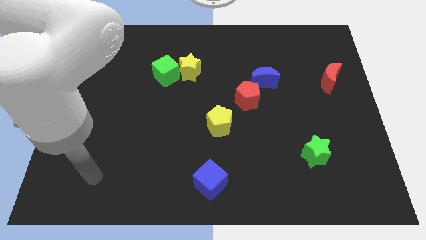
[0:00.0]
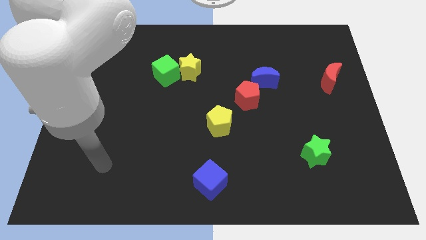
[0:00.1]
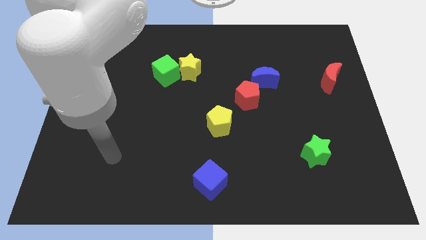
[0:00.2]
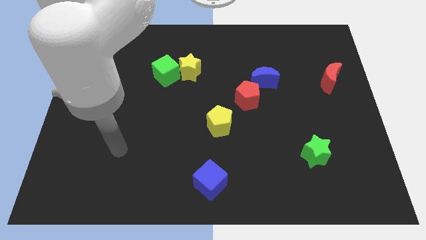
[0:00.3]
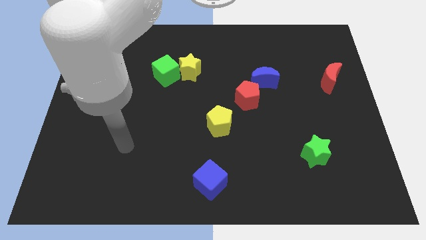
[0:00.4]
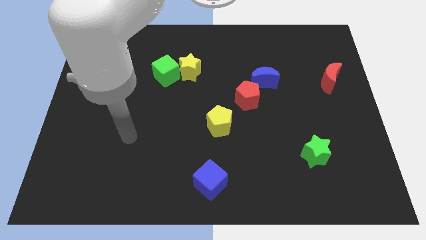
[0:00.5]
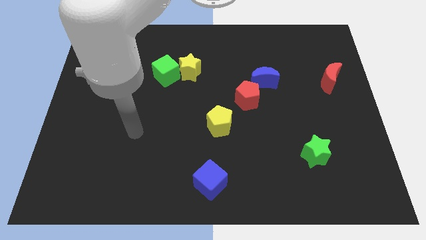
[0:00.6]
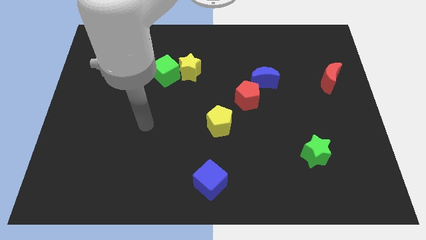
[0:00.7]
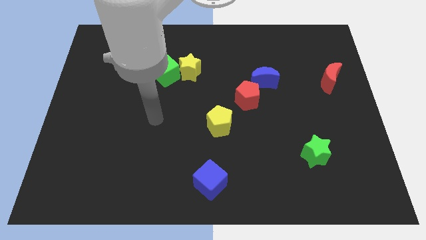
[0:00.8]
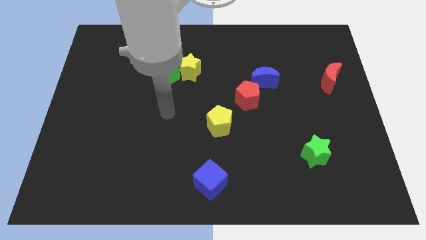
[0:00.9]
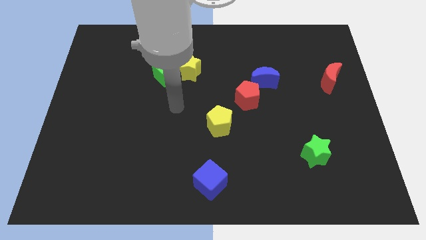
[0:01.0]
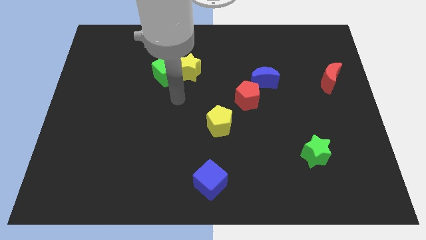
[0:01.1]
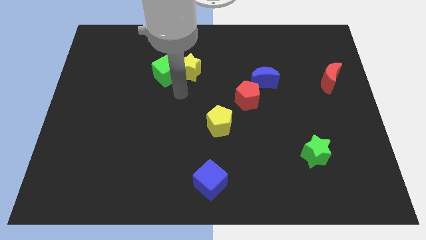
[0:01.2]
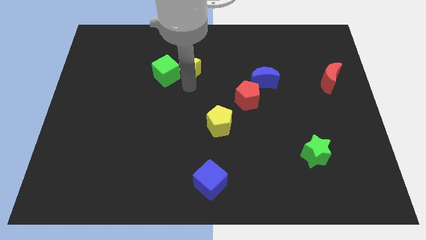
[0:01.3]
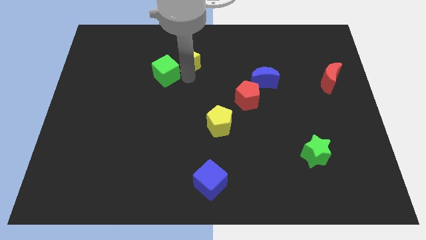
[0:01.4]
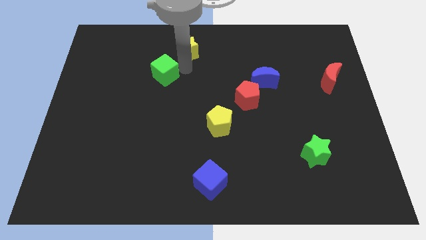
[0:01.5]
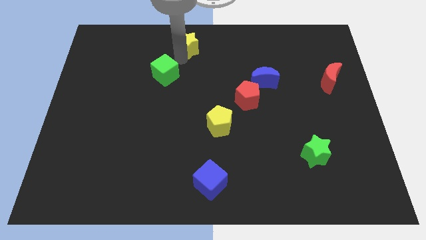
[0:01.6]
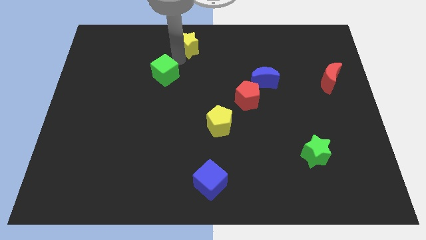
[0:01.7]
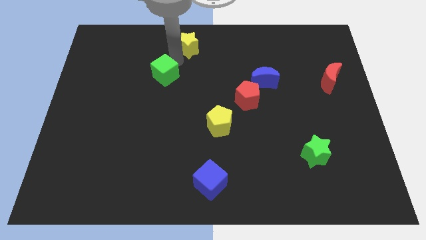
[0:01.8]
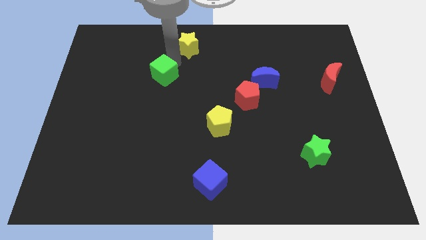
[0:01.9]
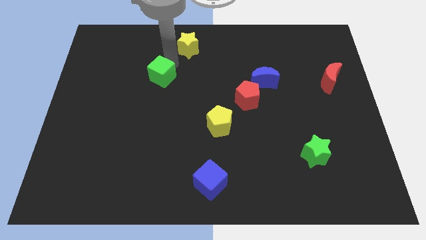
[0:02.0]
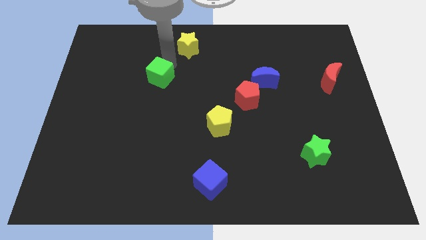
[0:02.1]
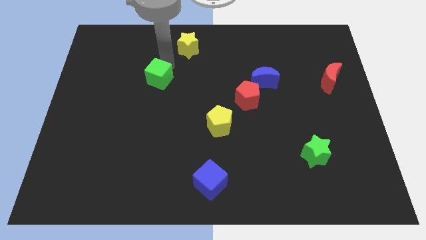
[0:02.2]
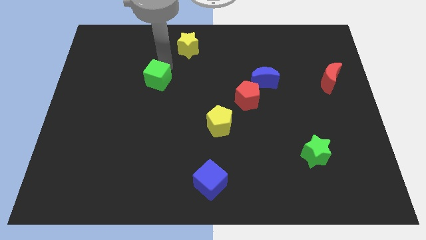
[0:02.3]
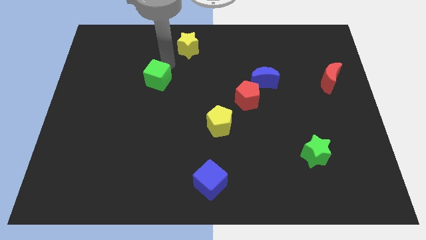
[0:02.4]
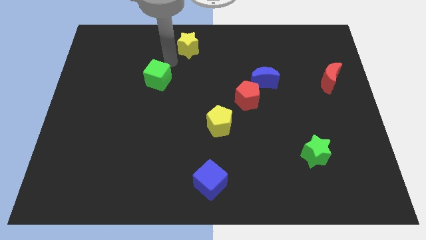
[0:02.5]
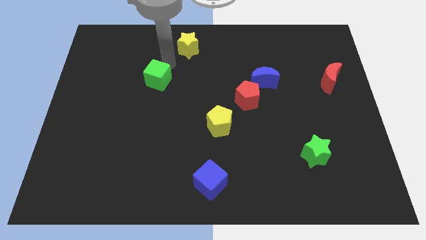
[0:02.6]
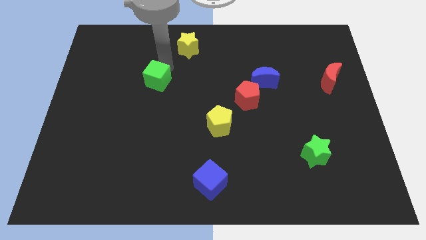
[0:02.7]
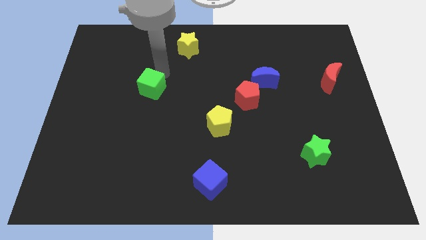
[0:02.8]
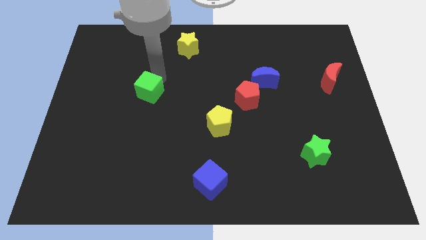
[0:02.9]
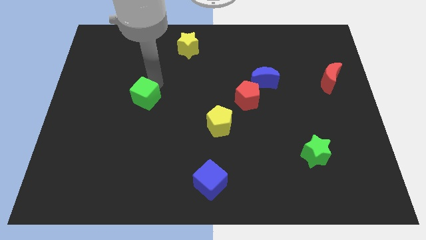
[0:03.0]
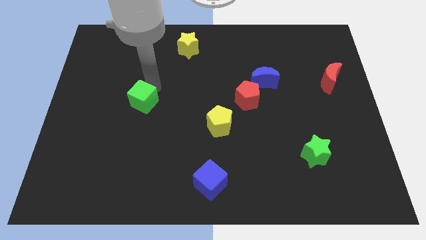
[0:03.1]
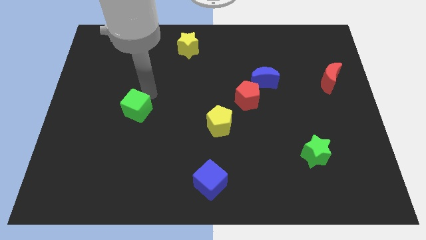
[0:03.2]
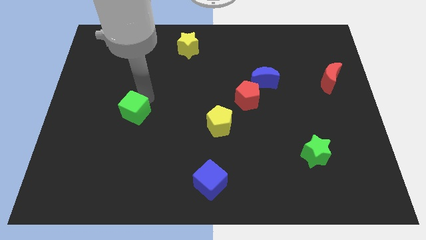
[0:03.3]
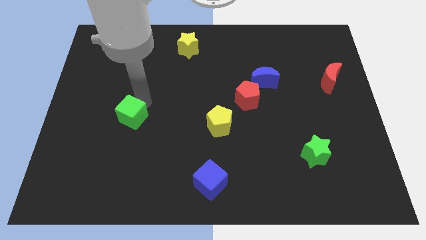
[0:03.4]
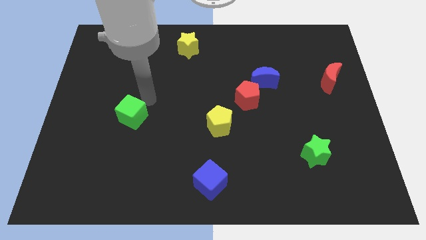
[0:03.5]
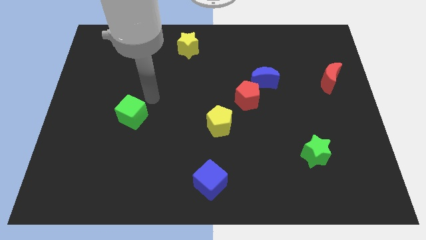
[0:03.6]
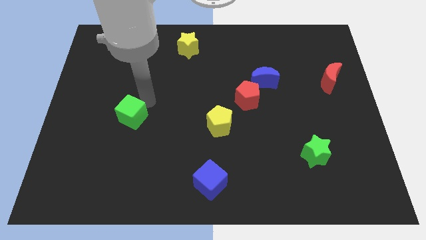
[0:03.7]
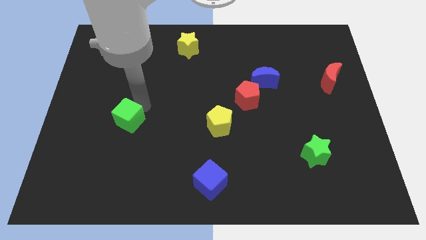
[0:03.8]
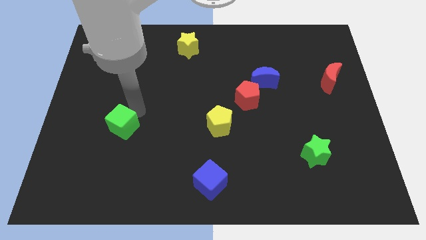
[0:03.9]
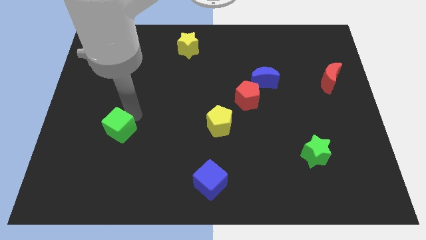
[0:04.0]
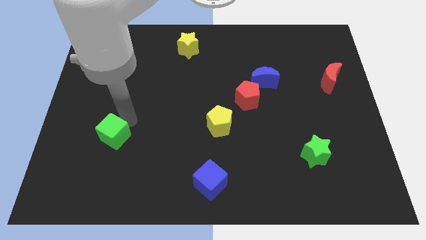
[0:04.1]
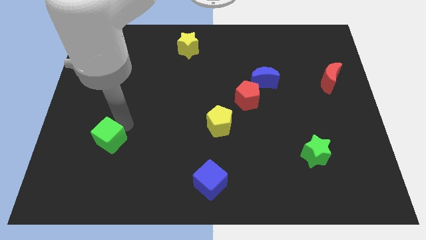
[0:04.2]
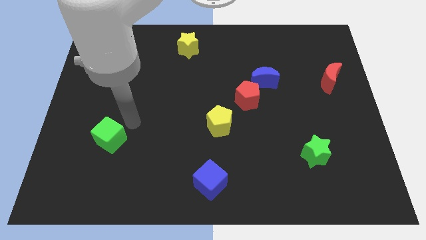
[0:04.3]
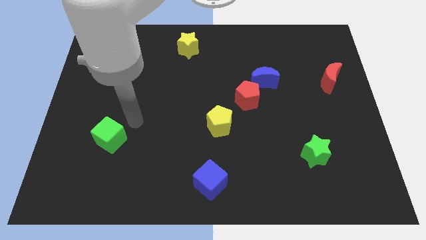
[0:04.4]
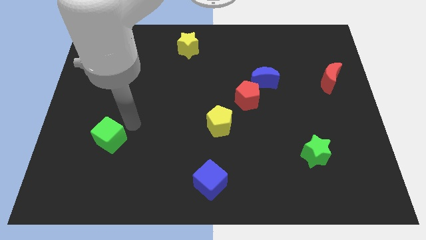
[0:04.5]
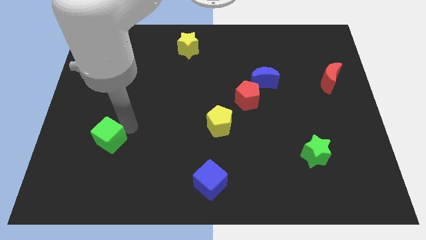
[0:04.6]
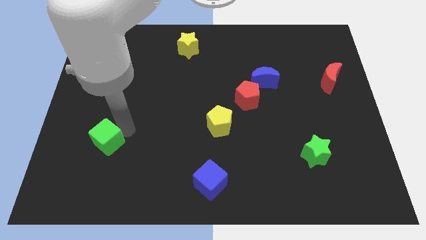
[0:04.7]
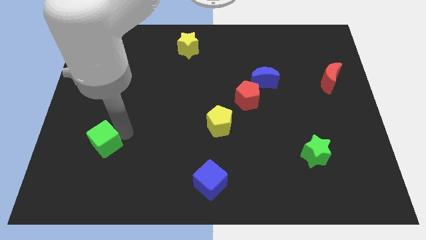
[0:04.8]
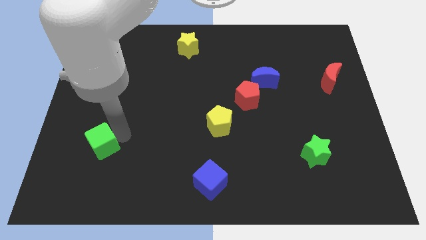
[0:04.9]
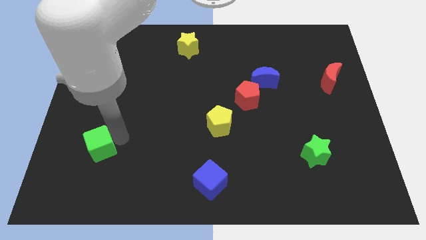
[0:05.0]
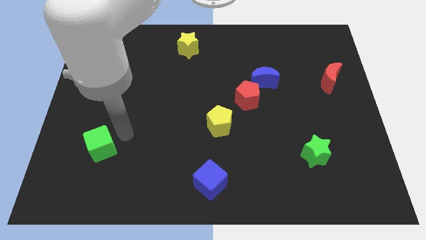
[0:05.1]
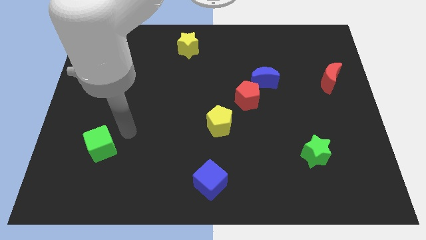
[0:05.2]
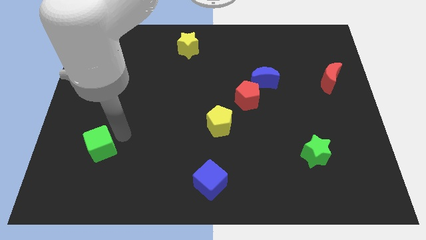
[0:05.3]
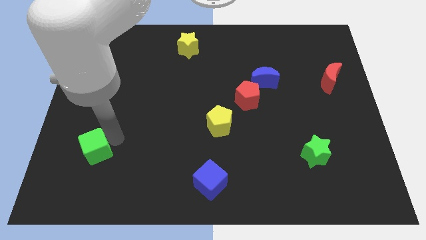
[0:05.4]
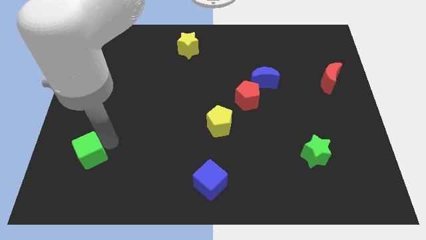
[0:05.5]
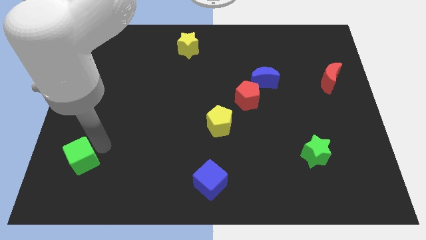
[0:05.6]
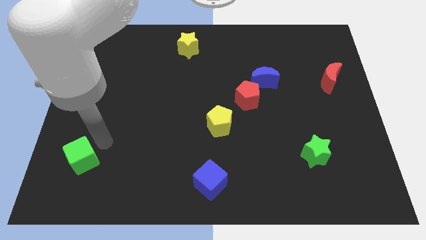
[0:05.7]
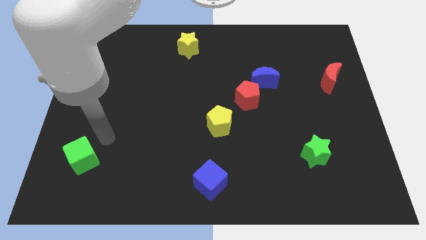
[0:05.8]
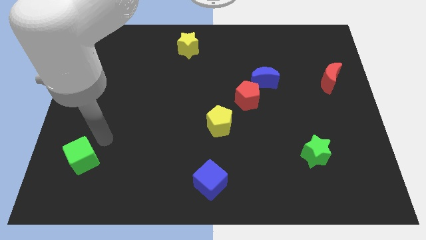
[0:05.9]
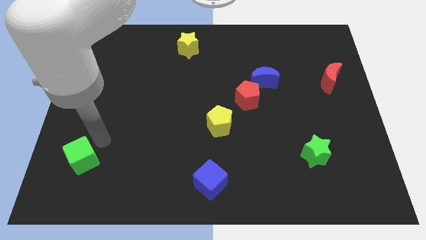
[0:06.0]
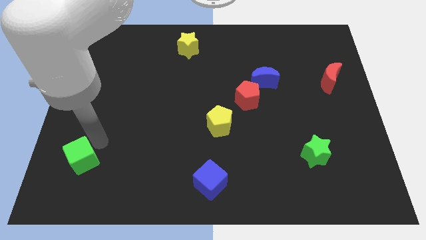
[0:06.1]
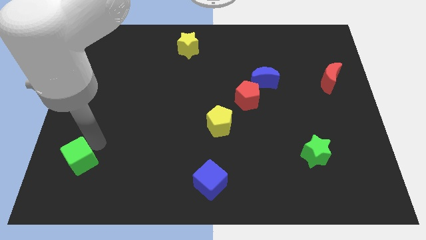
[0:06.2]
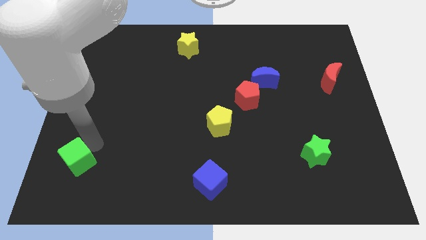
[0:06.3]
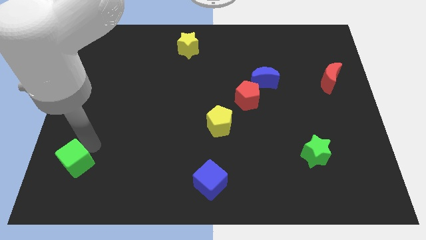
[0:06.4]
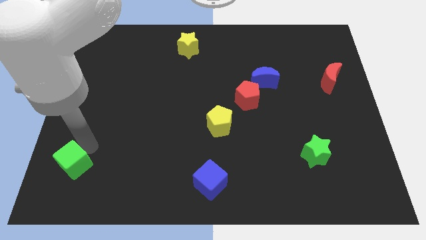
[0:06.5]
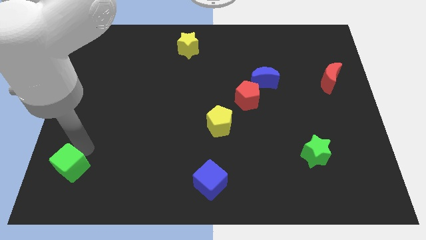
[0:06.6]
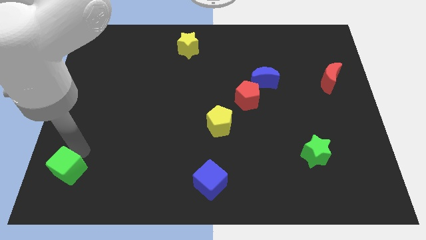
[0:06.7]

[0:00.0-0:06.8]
put the green cube to the bottom left of the board
